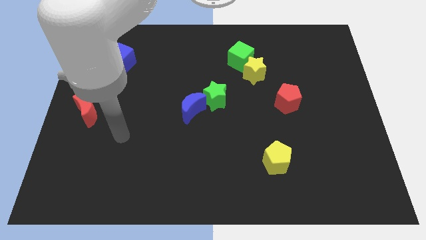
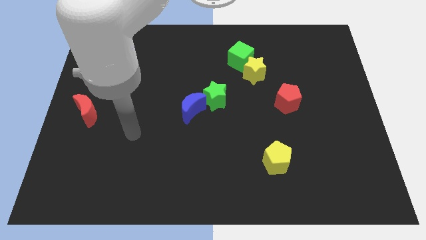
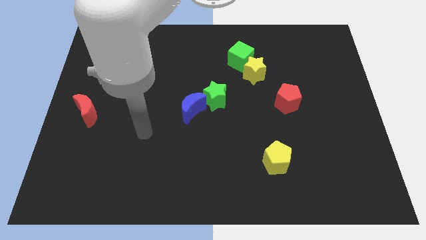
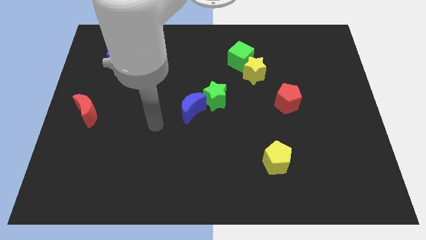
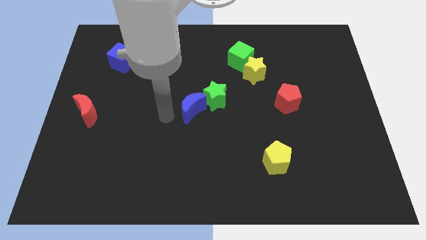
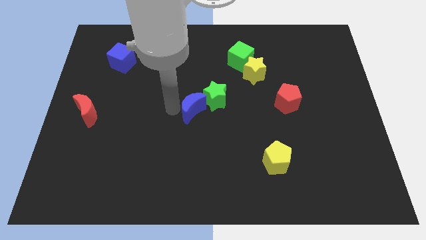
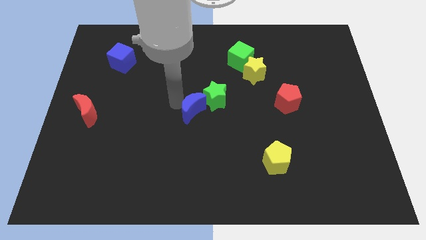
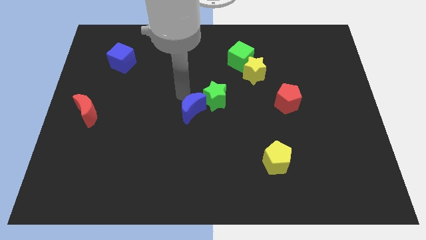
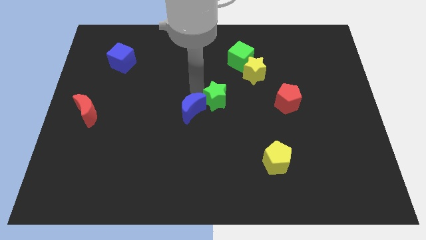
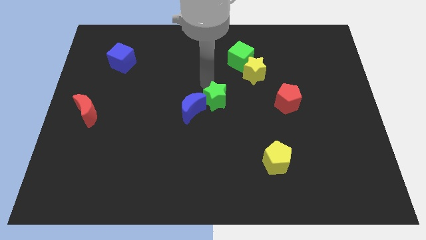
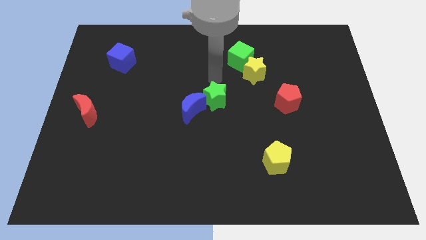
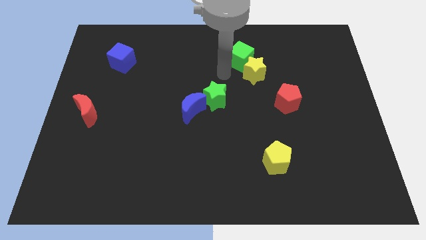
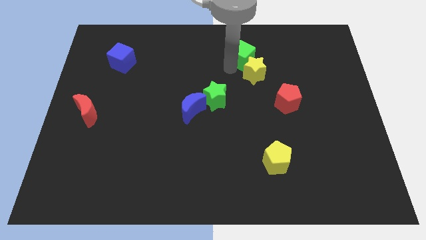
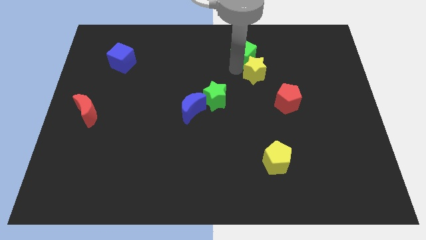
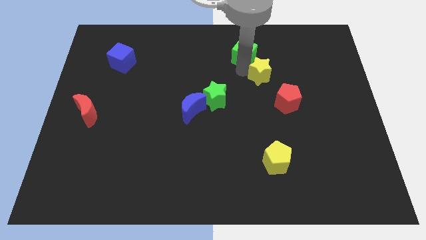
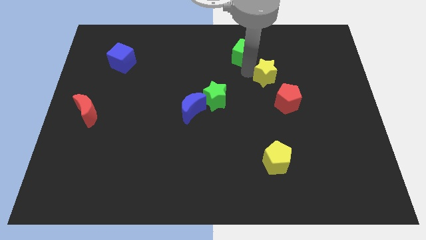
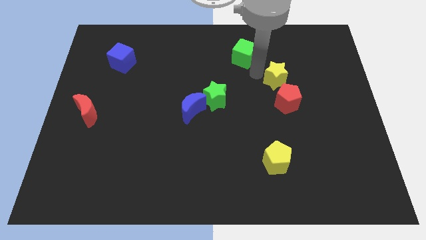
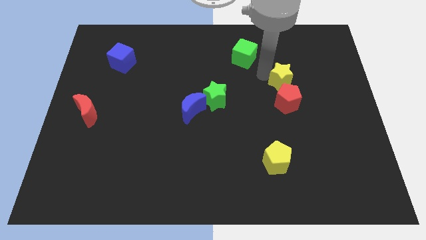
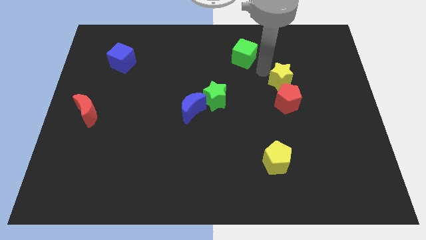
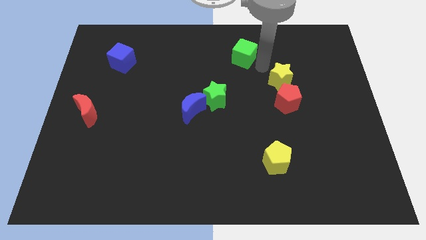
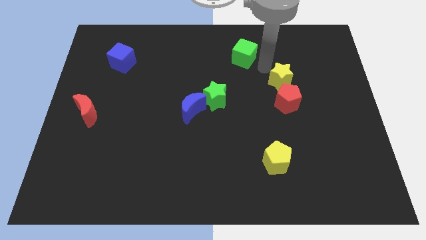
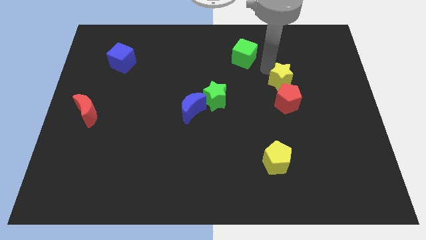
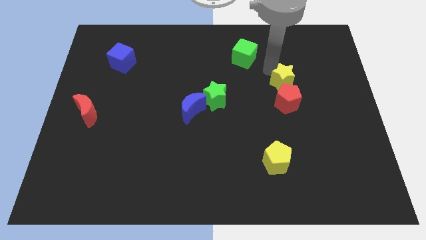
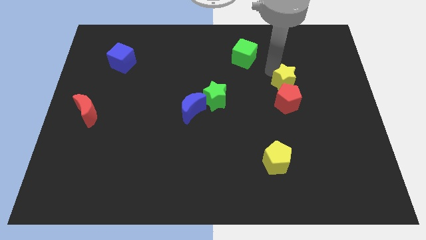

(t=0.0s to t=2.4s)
slide the yellow star diagonally downwards and right a bit

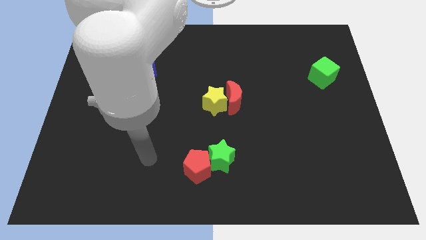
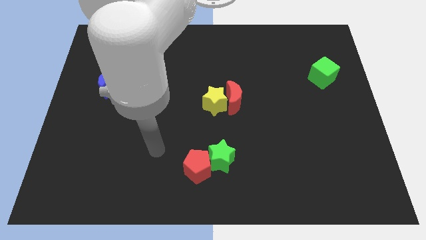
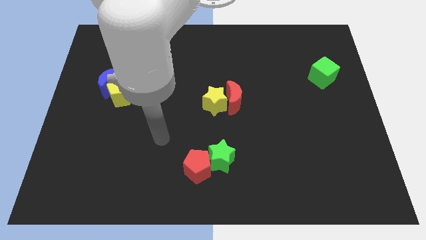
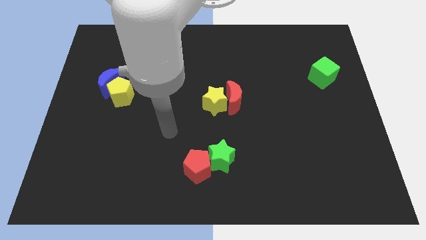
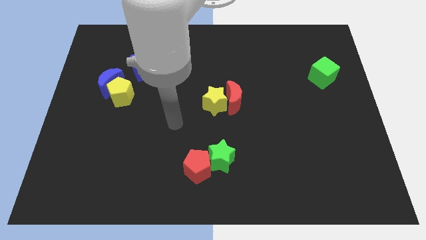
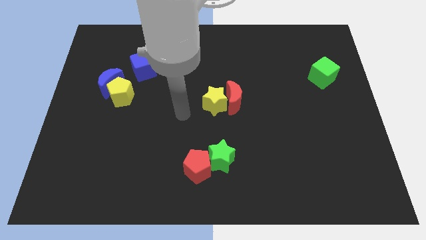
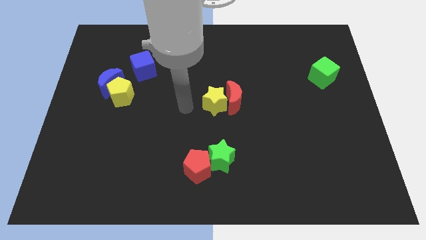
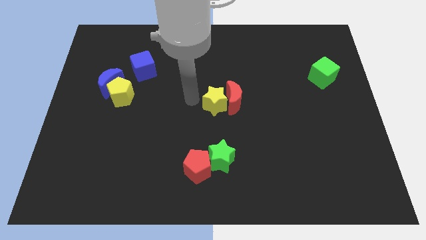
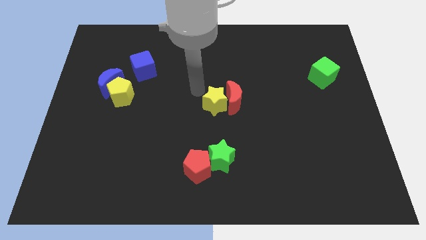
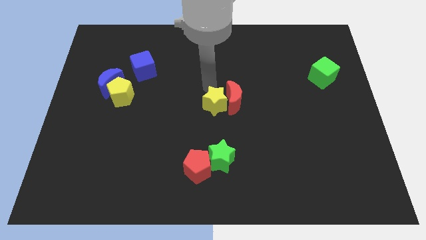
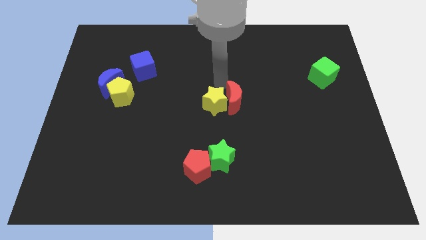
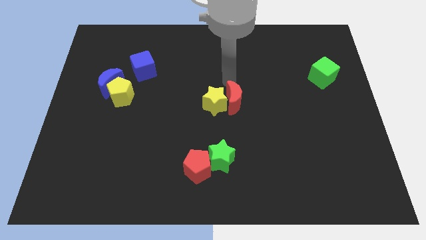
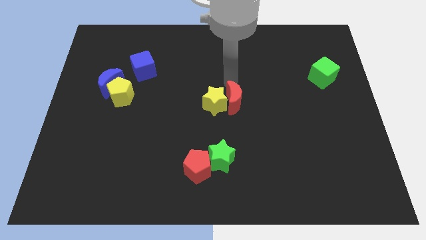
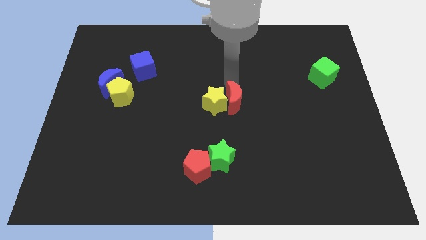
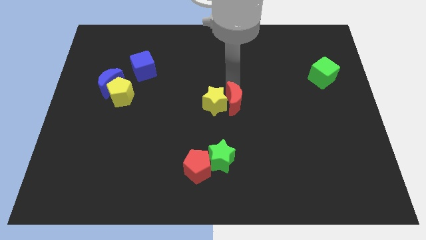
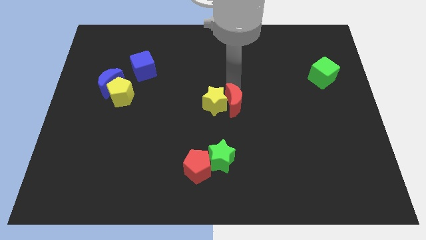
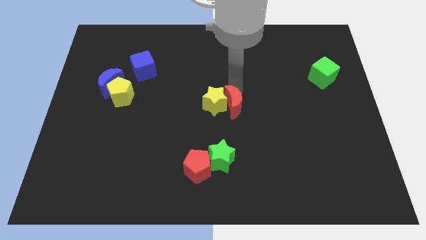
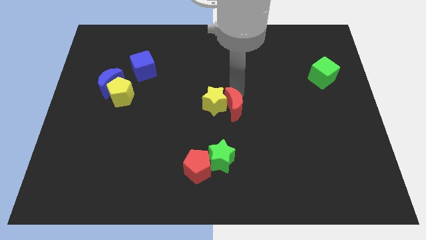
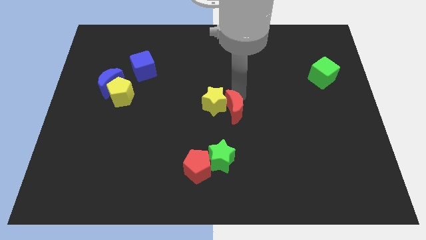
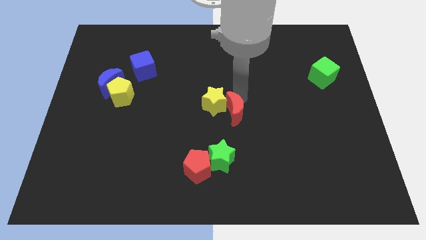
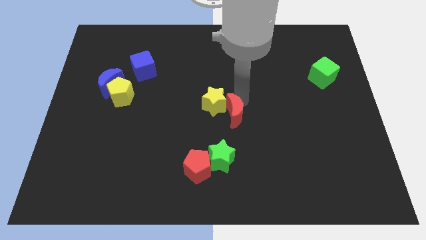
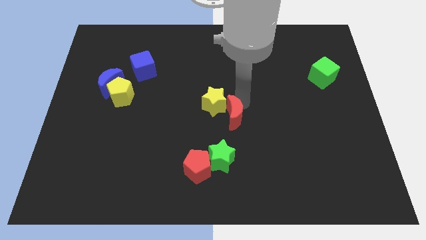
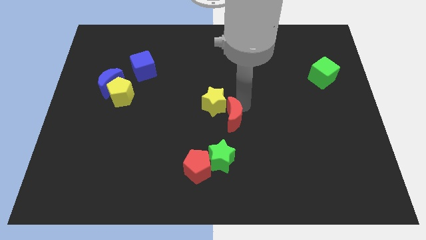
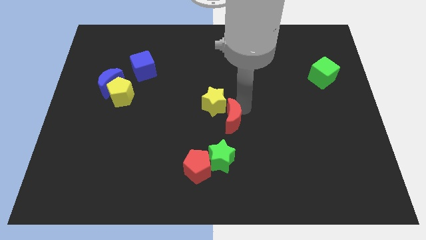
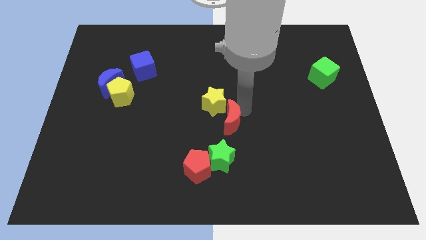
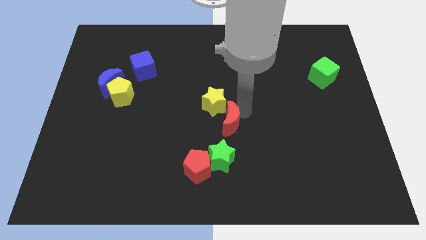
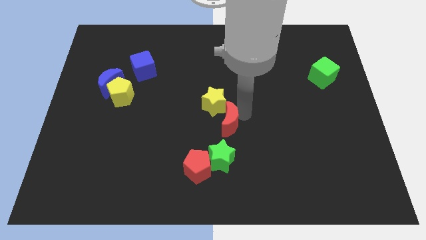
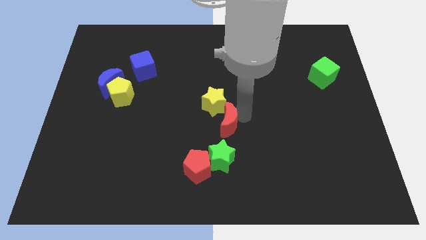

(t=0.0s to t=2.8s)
slide the red moon a little down

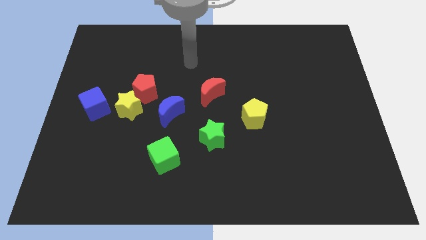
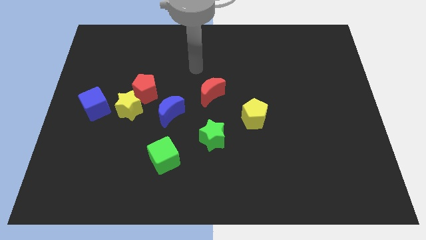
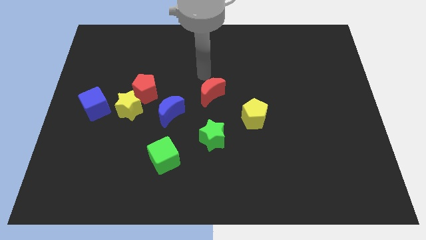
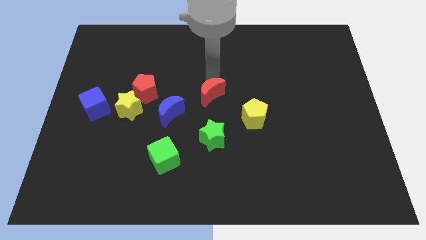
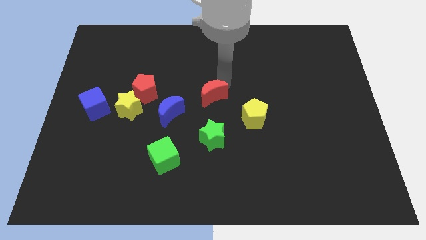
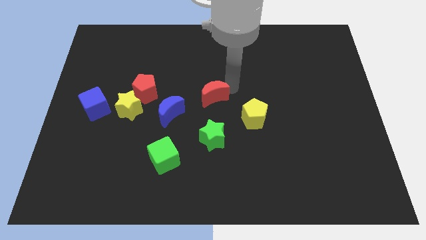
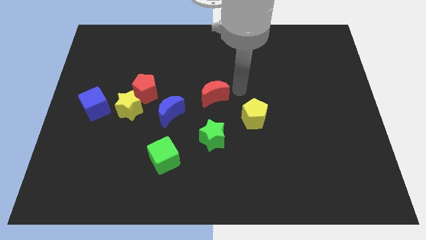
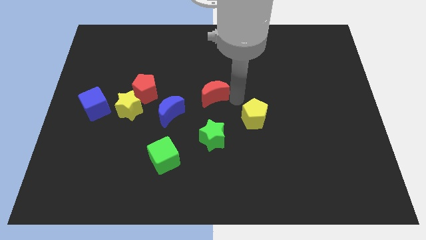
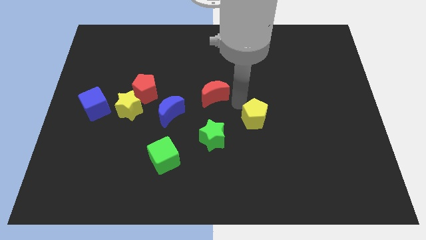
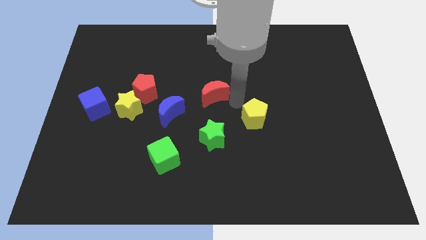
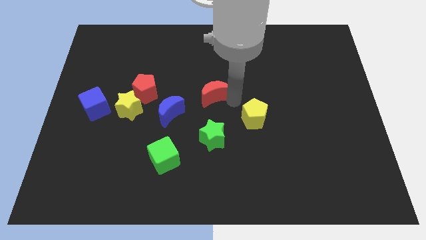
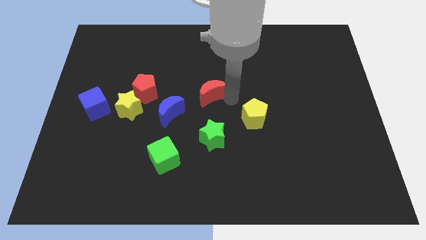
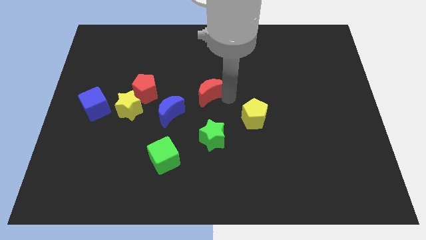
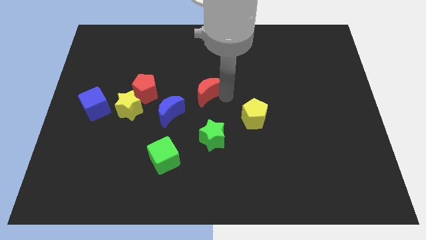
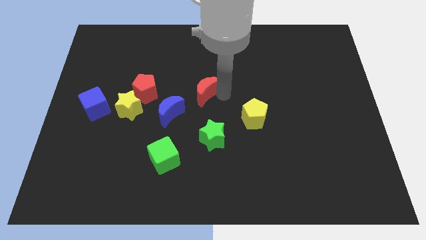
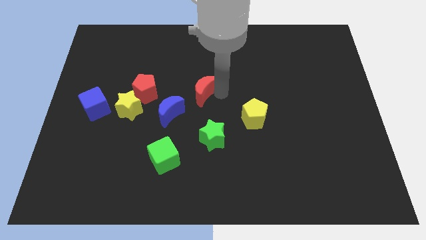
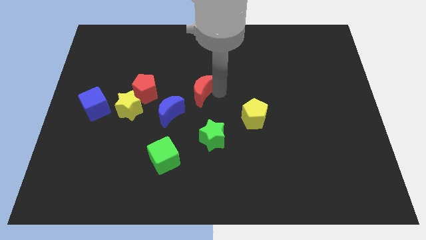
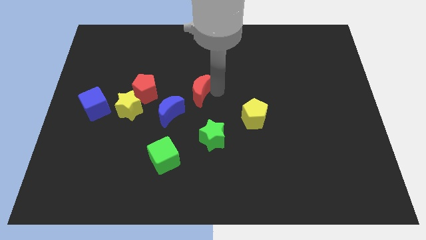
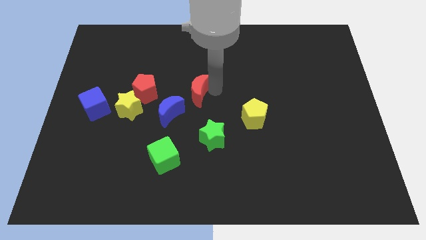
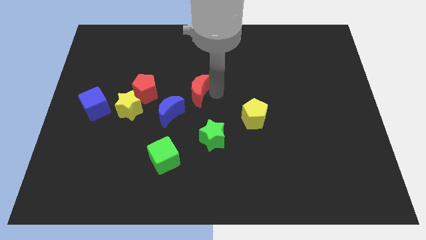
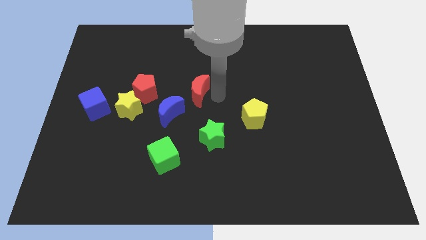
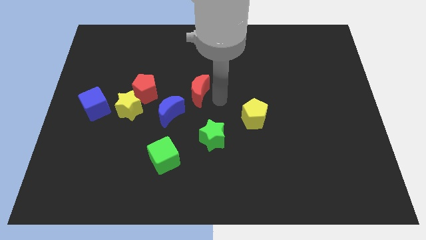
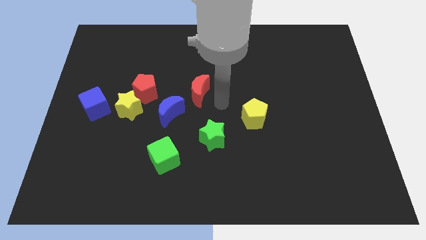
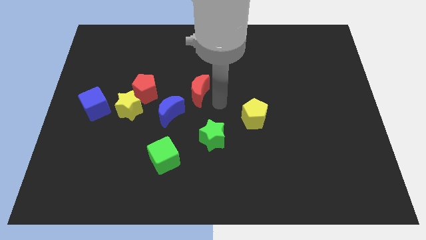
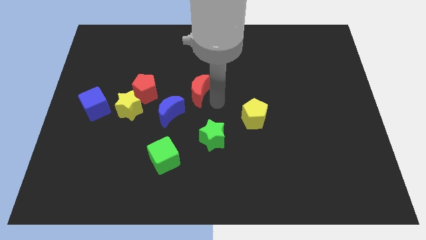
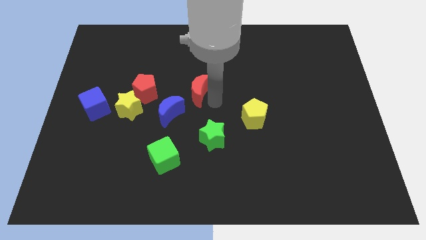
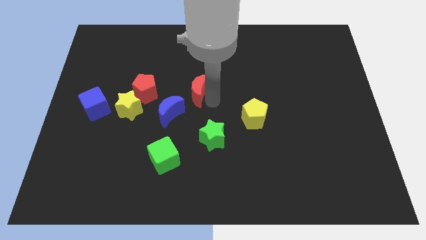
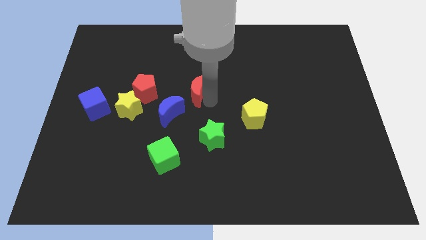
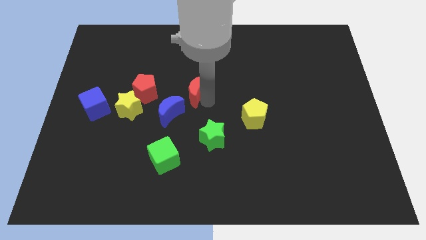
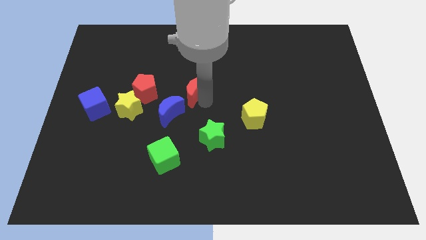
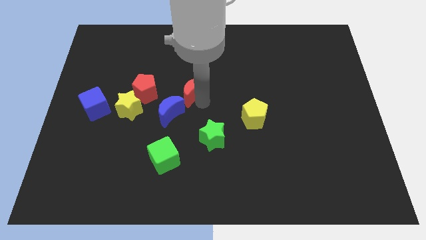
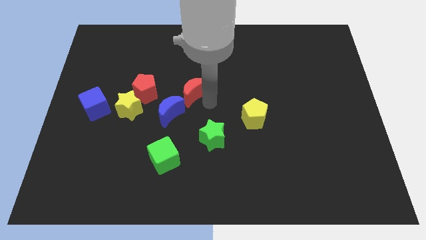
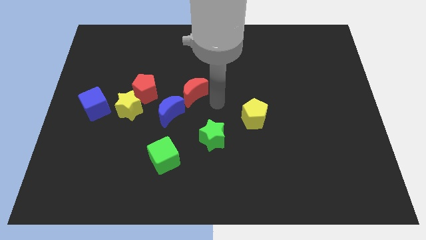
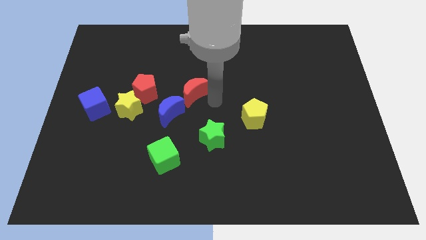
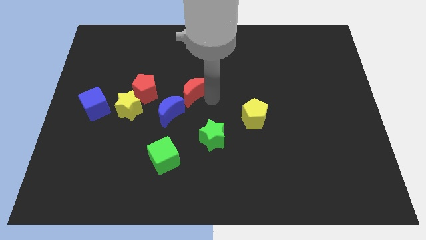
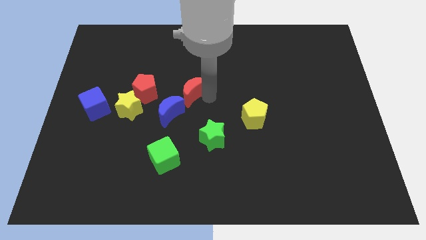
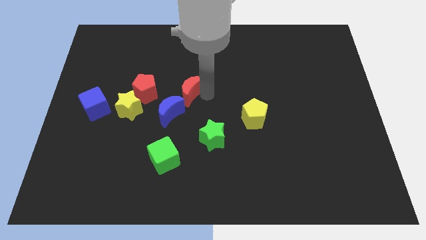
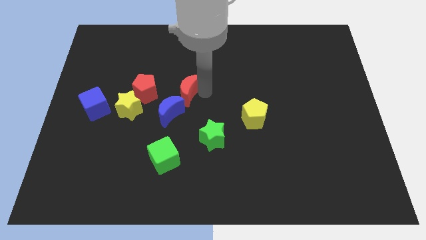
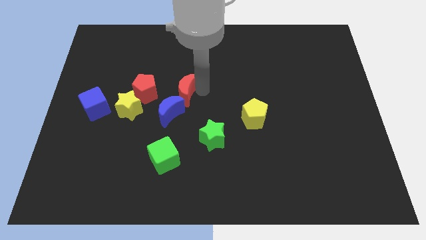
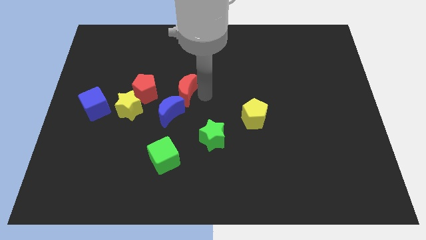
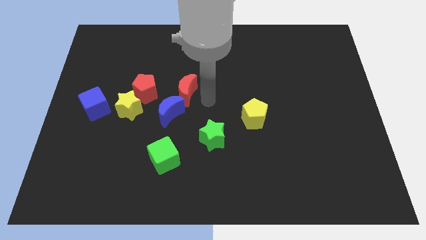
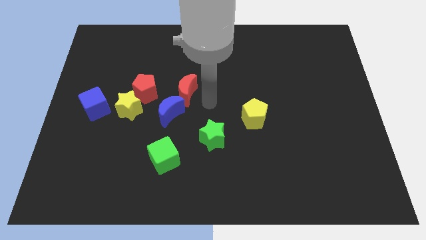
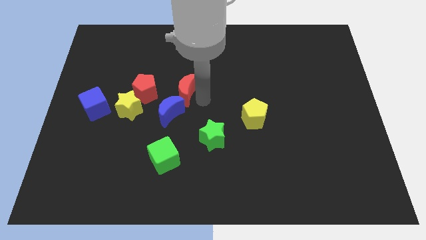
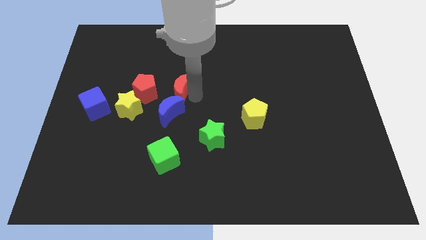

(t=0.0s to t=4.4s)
slightly slide the red moon left
